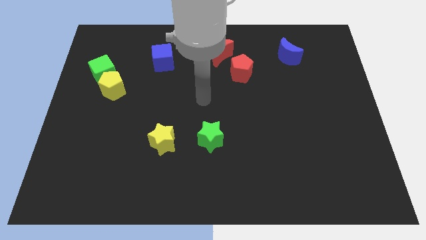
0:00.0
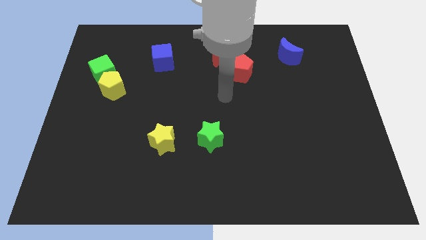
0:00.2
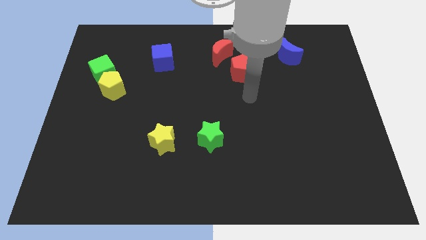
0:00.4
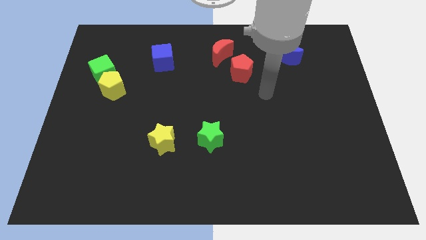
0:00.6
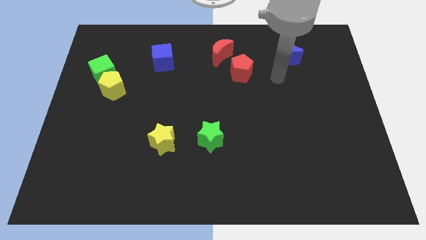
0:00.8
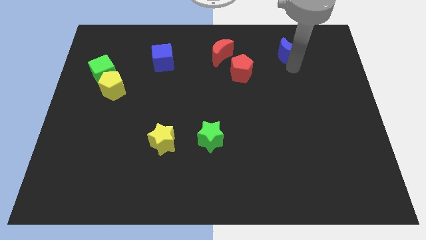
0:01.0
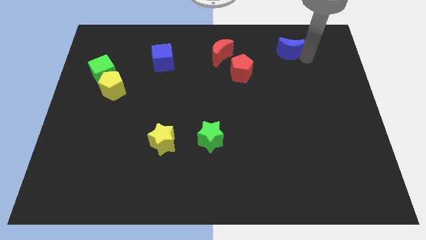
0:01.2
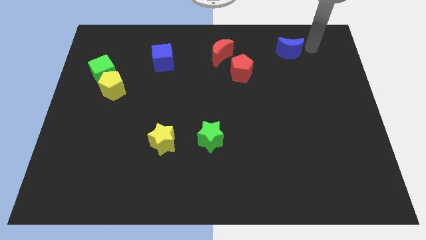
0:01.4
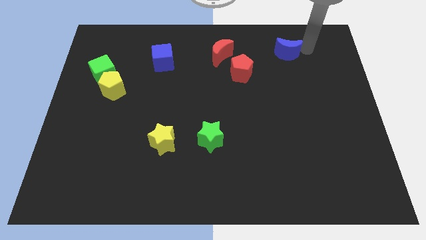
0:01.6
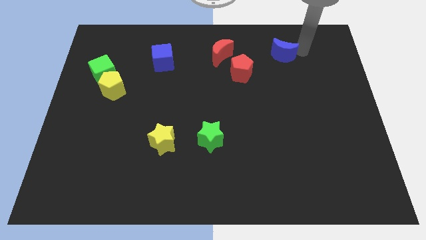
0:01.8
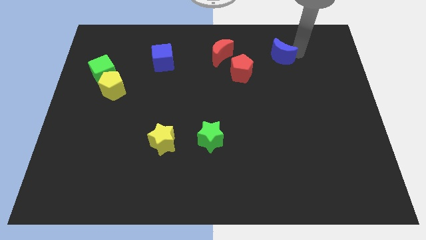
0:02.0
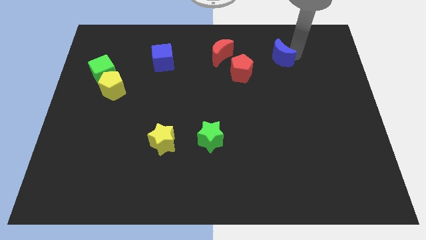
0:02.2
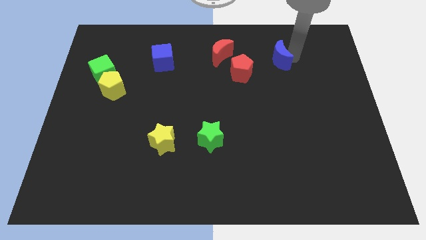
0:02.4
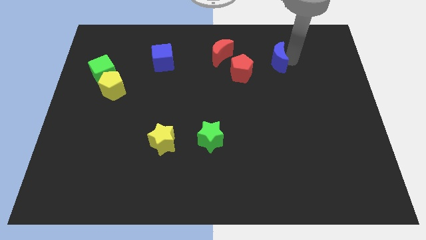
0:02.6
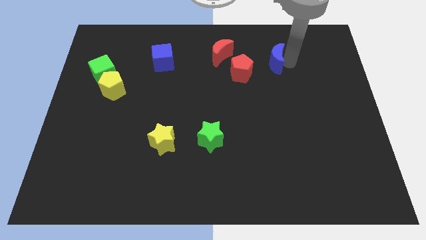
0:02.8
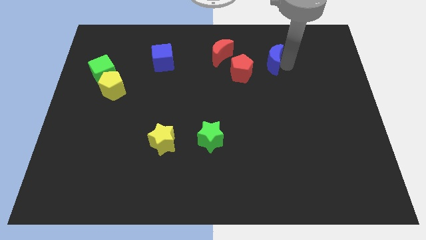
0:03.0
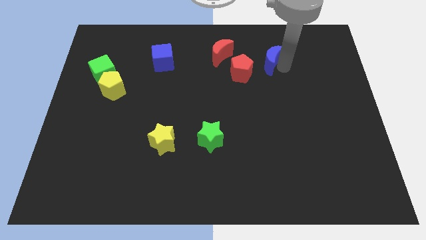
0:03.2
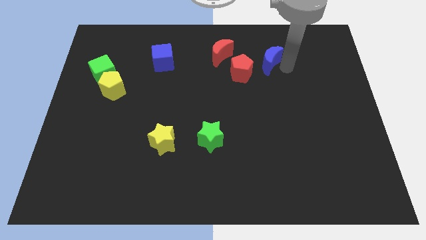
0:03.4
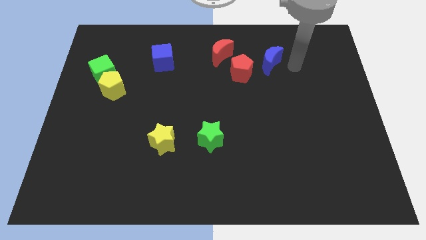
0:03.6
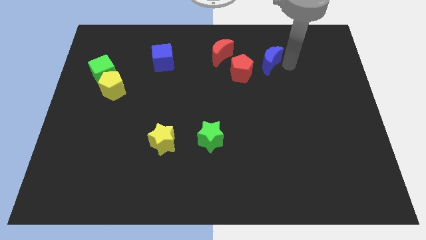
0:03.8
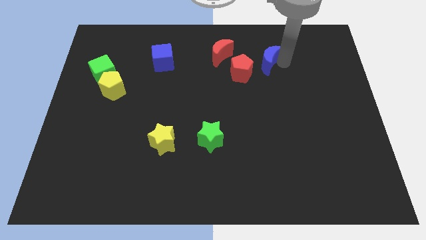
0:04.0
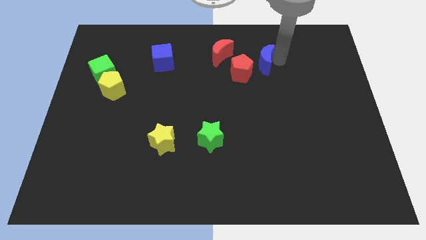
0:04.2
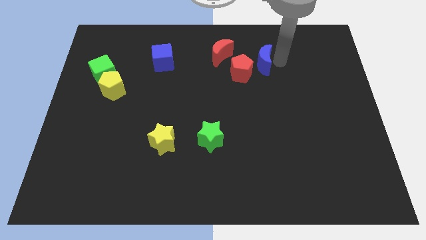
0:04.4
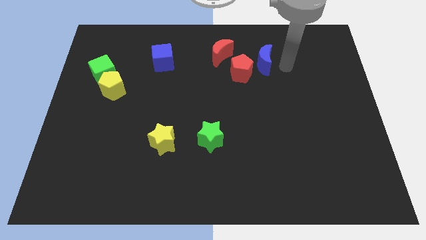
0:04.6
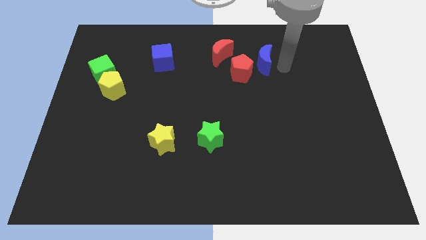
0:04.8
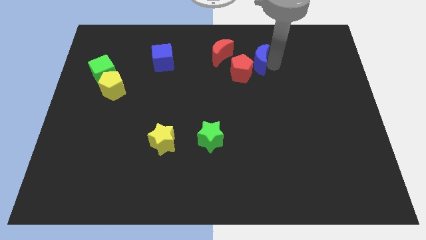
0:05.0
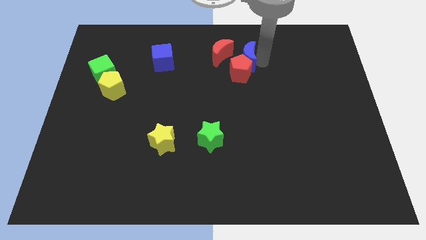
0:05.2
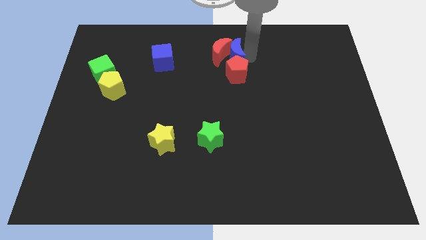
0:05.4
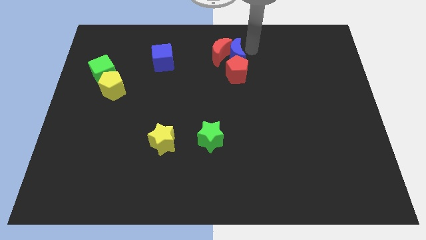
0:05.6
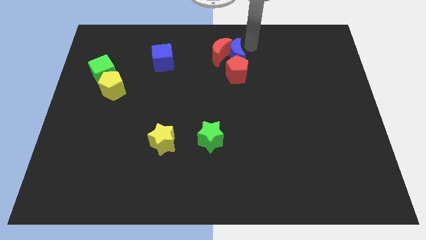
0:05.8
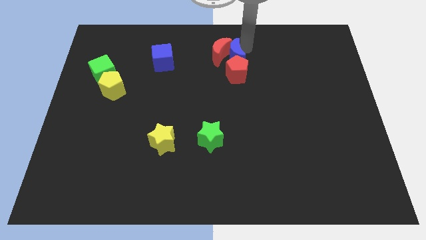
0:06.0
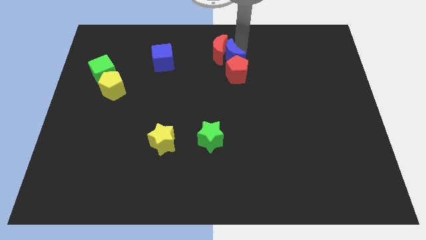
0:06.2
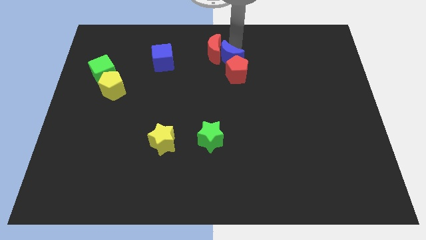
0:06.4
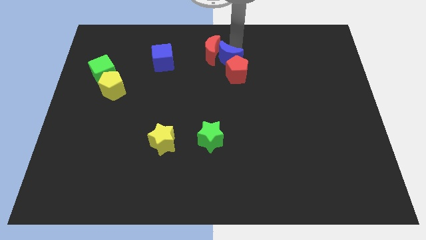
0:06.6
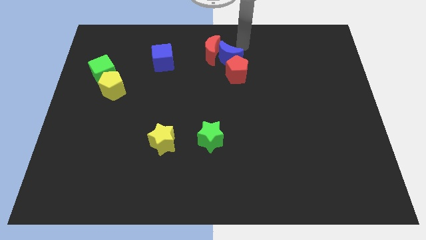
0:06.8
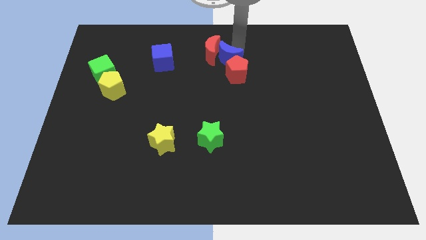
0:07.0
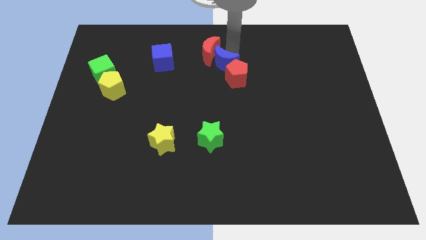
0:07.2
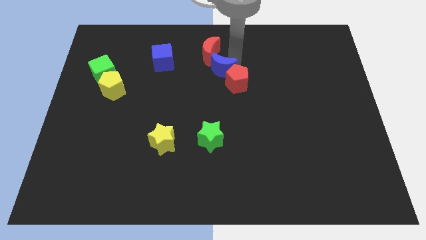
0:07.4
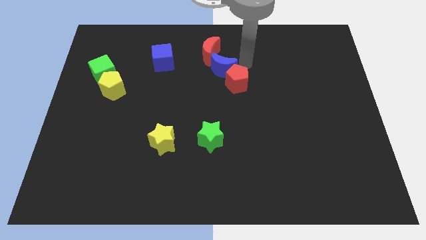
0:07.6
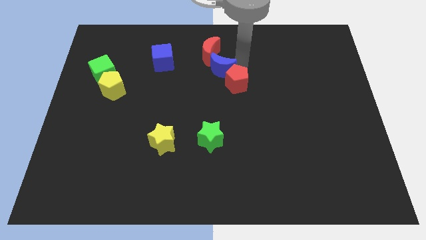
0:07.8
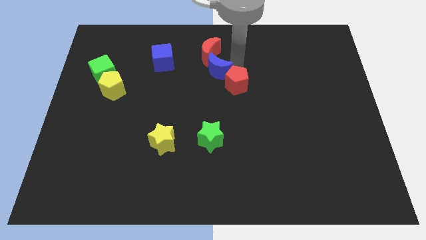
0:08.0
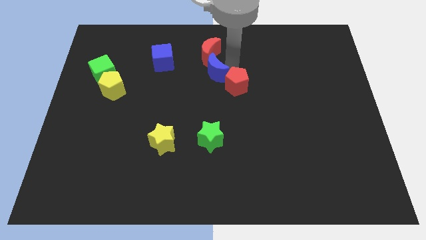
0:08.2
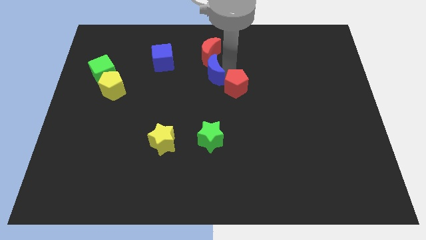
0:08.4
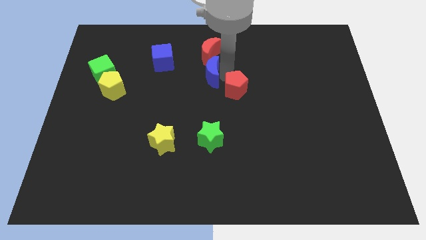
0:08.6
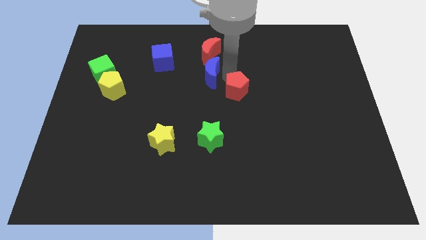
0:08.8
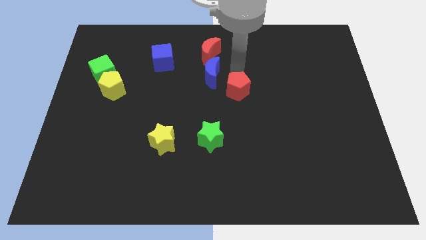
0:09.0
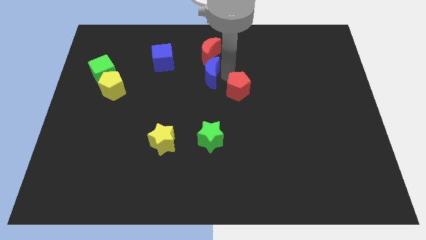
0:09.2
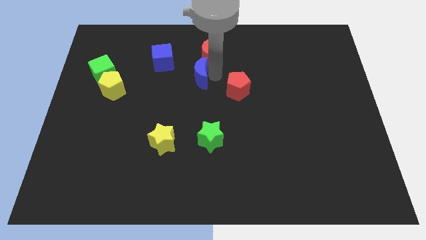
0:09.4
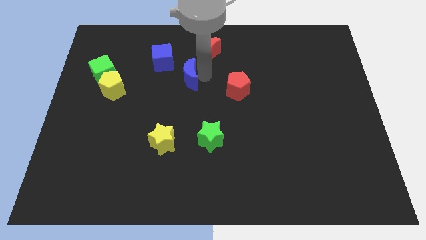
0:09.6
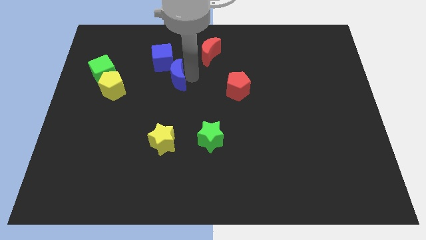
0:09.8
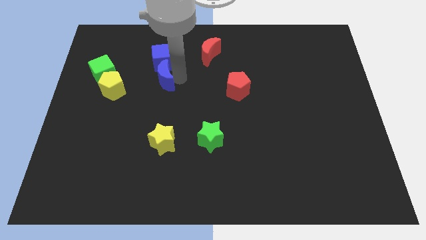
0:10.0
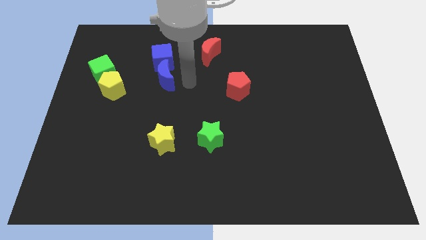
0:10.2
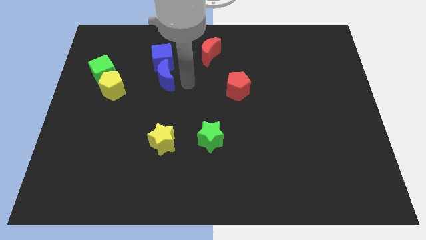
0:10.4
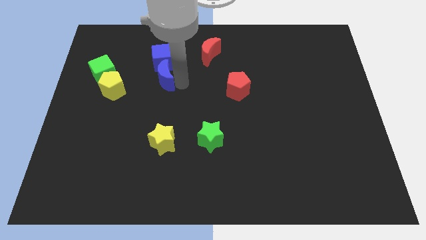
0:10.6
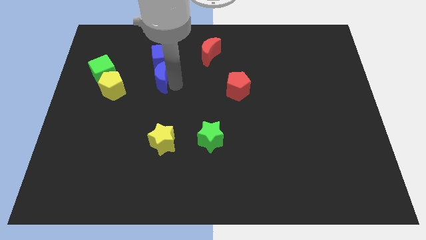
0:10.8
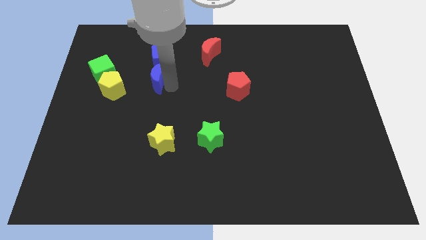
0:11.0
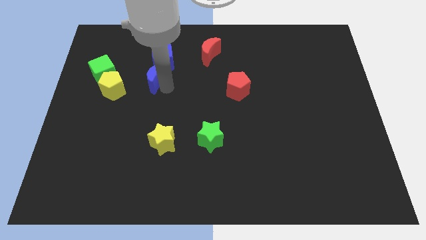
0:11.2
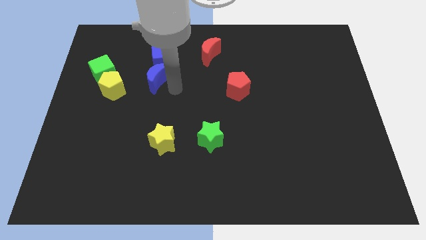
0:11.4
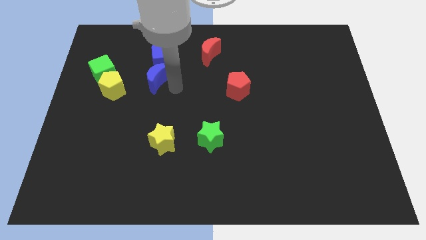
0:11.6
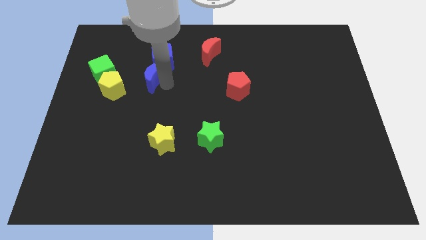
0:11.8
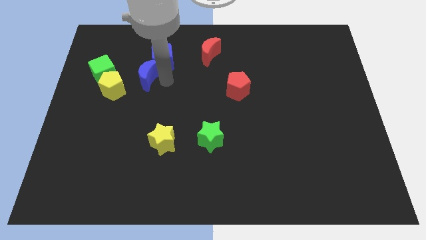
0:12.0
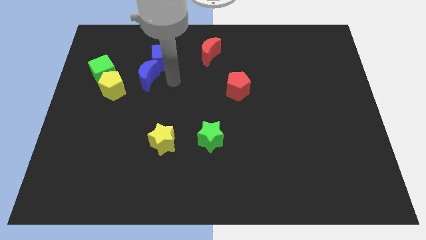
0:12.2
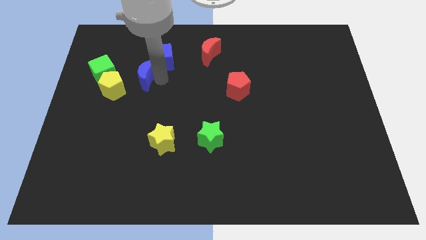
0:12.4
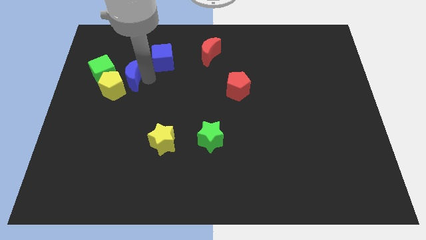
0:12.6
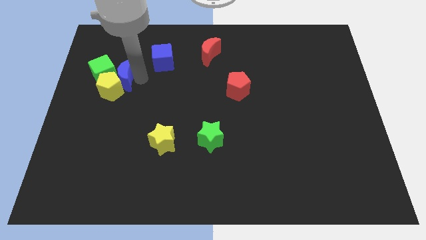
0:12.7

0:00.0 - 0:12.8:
push the blue moon close to the green cube
